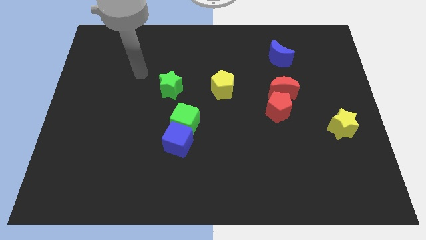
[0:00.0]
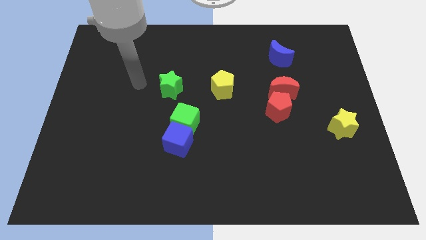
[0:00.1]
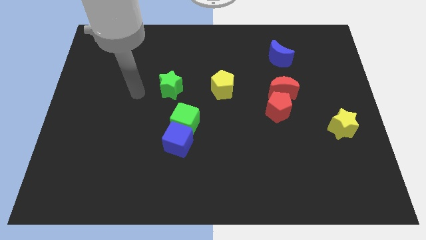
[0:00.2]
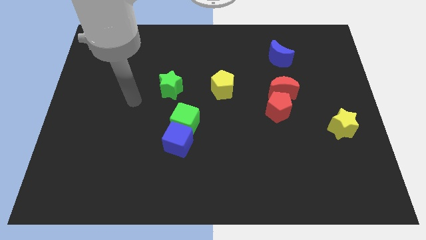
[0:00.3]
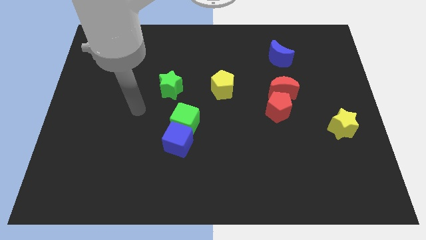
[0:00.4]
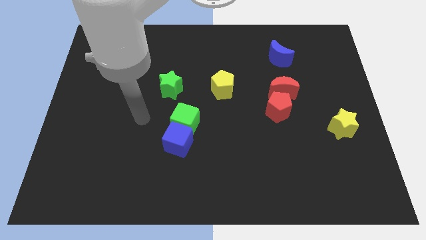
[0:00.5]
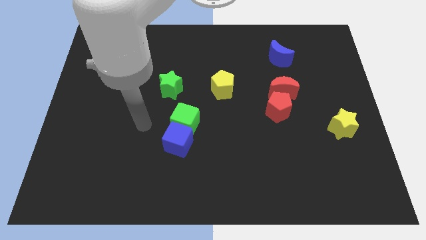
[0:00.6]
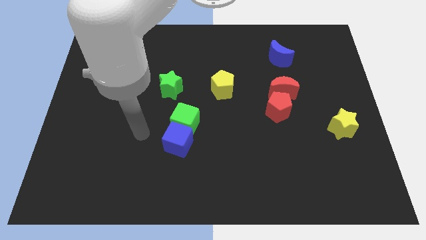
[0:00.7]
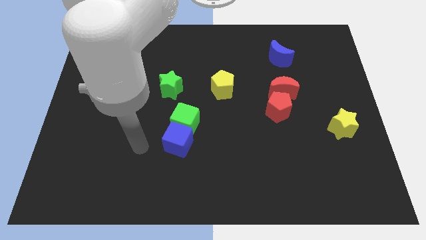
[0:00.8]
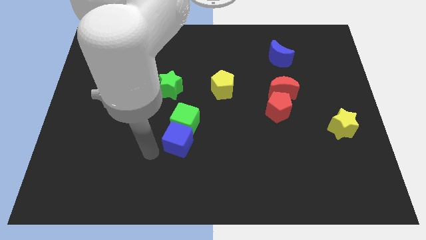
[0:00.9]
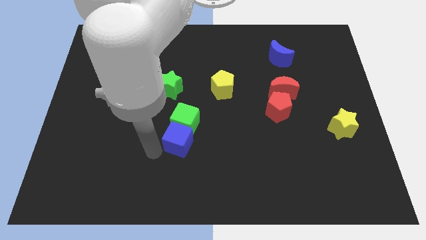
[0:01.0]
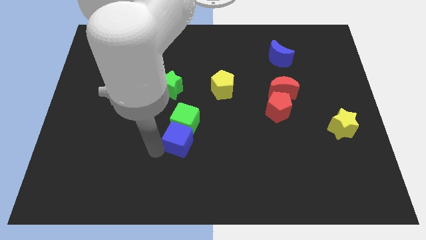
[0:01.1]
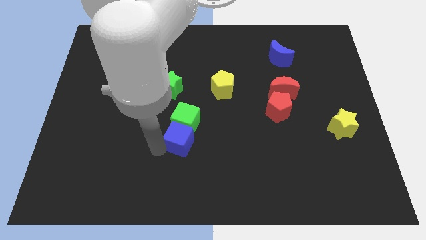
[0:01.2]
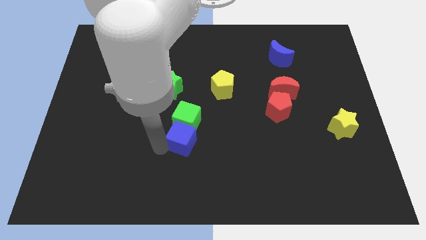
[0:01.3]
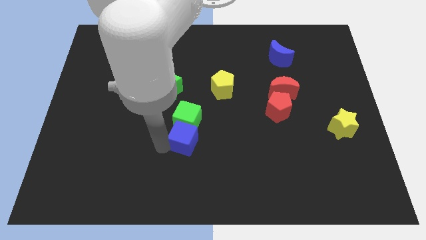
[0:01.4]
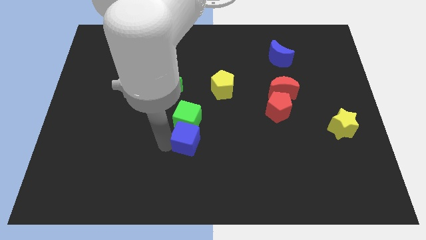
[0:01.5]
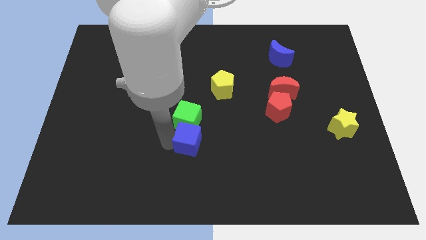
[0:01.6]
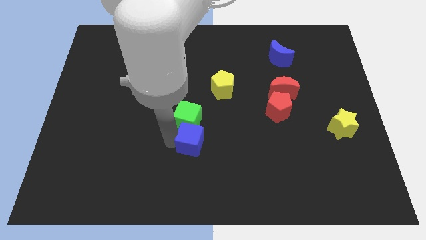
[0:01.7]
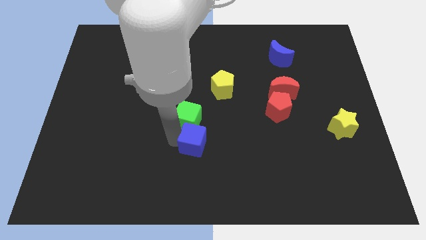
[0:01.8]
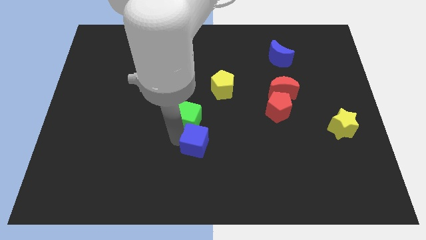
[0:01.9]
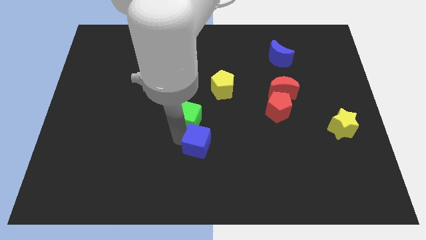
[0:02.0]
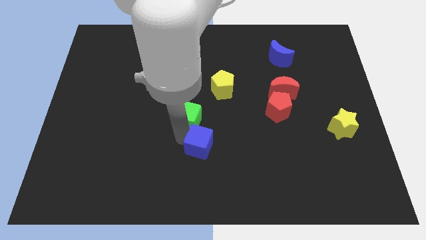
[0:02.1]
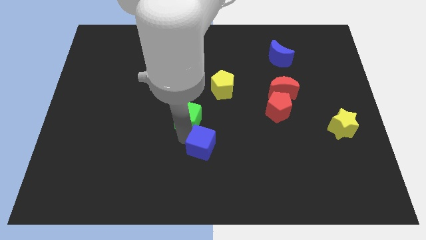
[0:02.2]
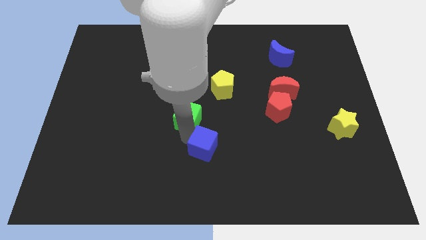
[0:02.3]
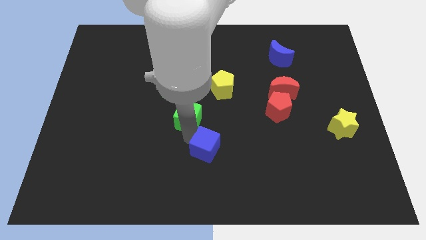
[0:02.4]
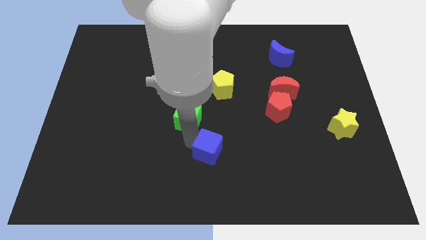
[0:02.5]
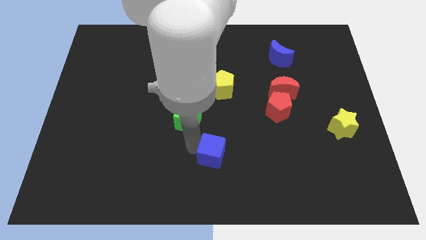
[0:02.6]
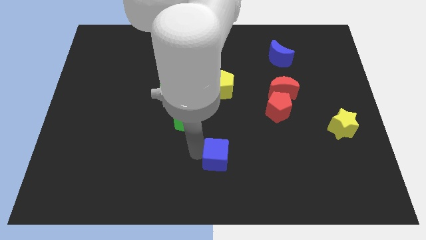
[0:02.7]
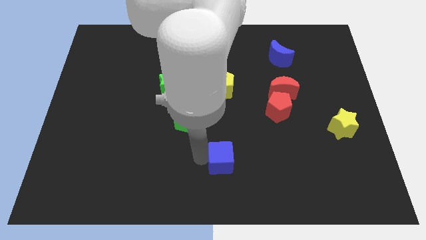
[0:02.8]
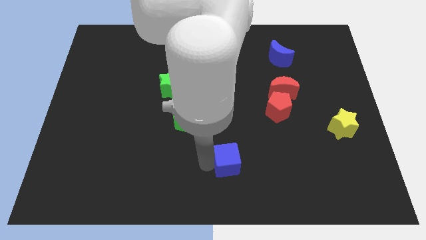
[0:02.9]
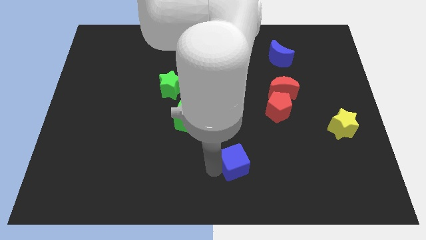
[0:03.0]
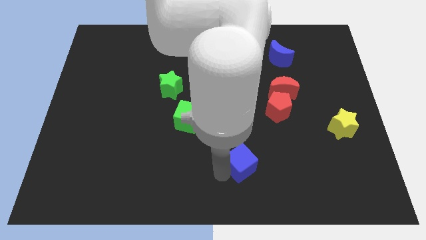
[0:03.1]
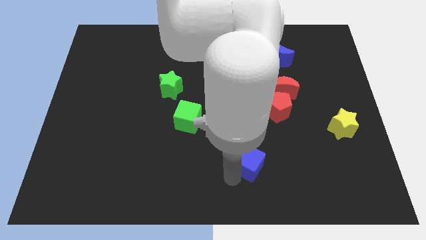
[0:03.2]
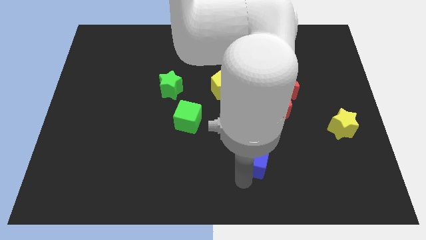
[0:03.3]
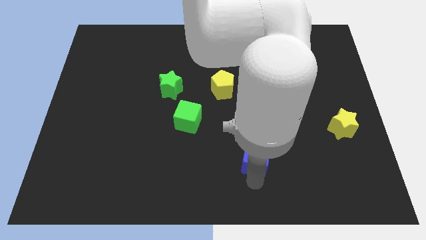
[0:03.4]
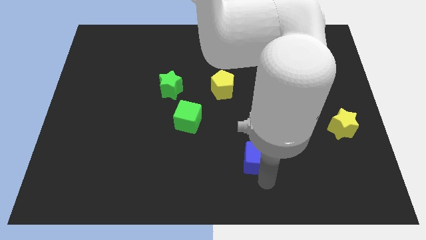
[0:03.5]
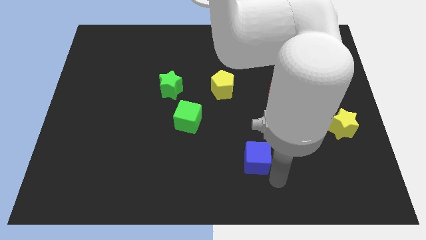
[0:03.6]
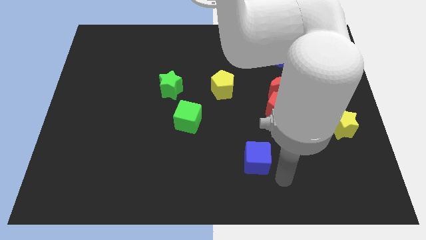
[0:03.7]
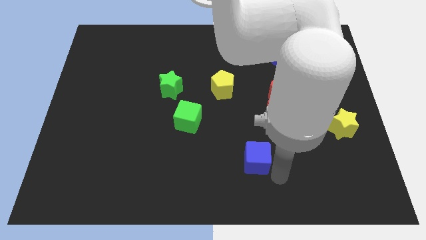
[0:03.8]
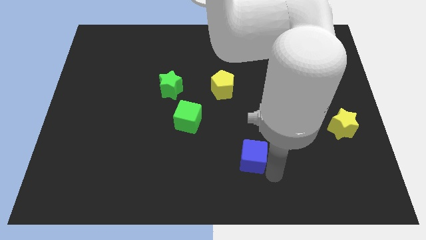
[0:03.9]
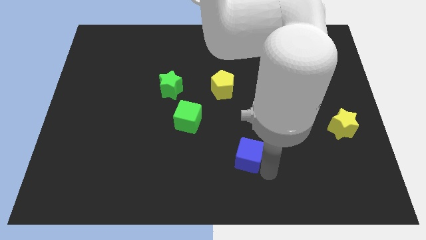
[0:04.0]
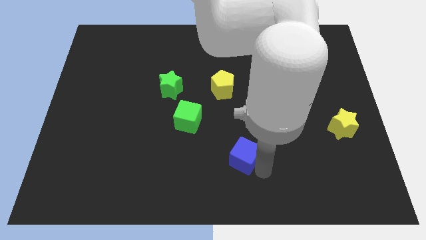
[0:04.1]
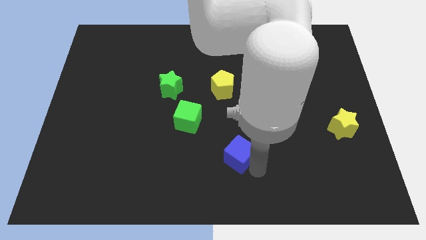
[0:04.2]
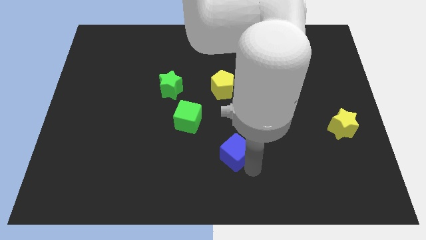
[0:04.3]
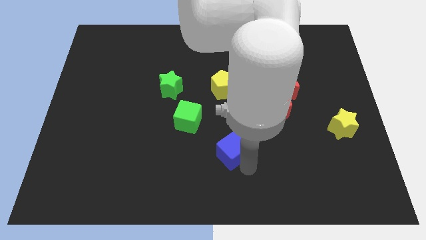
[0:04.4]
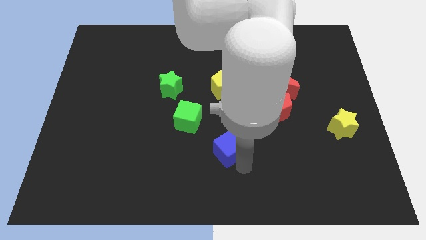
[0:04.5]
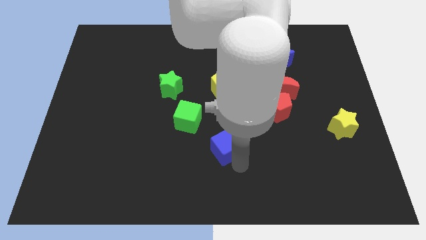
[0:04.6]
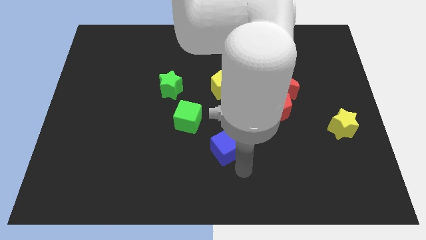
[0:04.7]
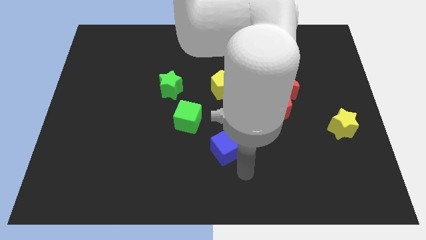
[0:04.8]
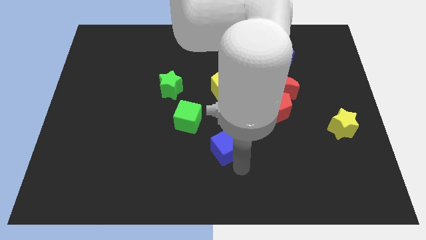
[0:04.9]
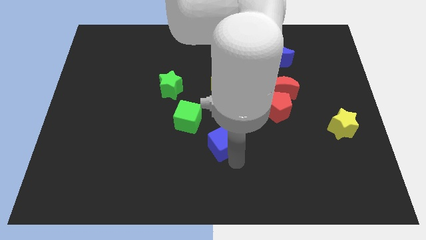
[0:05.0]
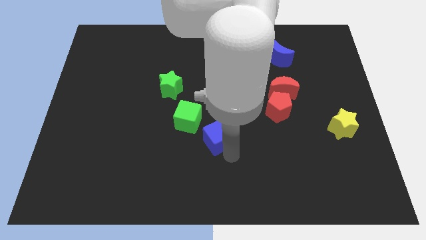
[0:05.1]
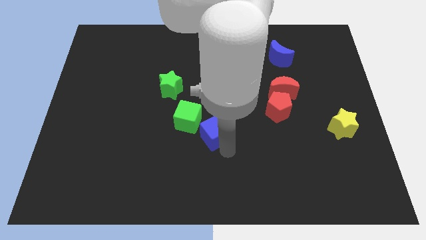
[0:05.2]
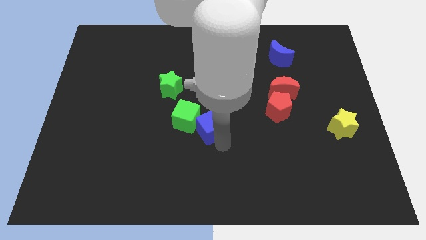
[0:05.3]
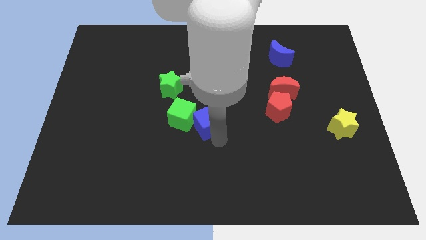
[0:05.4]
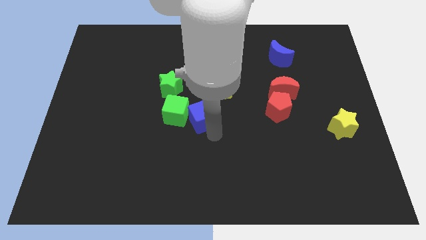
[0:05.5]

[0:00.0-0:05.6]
move the blue cube to the bottom left side of the yellow pentagon

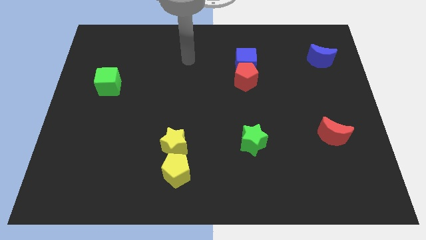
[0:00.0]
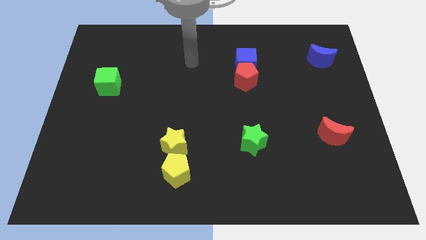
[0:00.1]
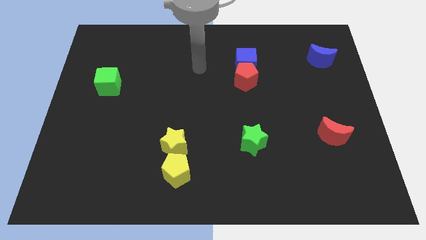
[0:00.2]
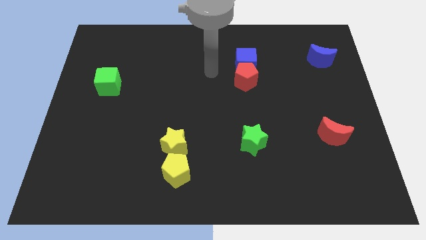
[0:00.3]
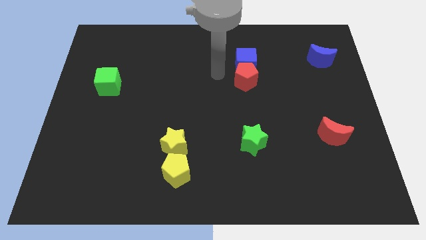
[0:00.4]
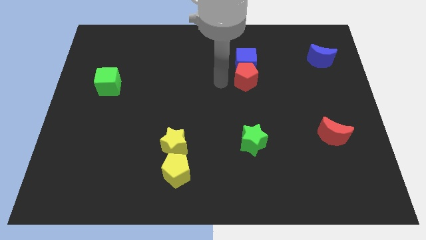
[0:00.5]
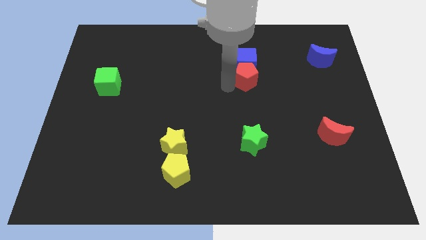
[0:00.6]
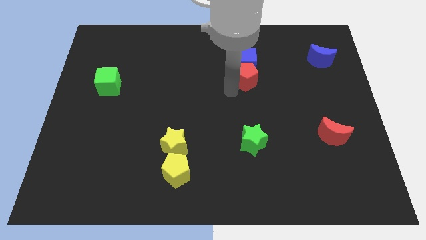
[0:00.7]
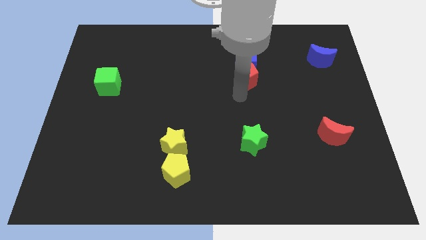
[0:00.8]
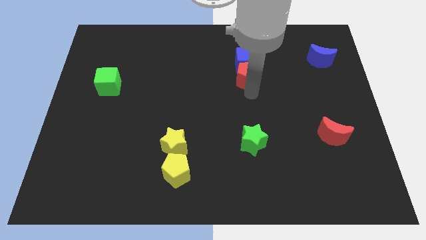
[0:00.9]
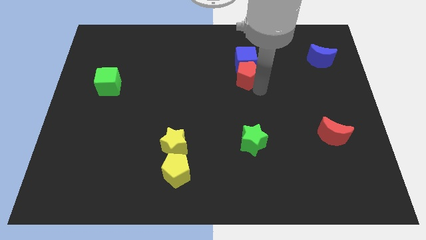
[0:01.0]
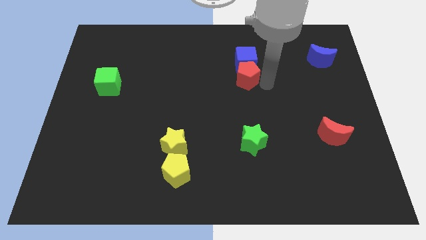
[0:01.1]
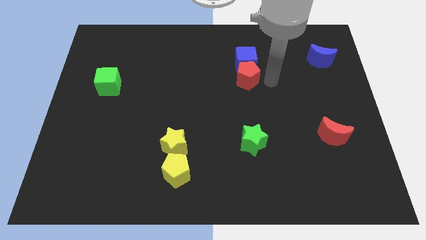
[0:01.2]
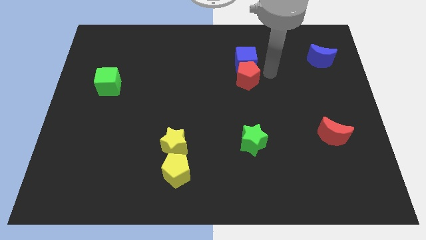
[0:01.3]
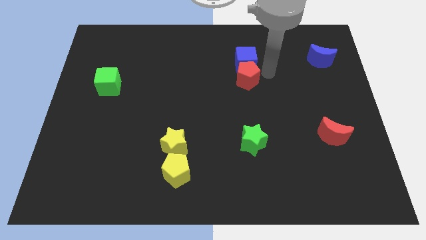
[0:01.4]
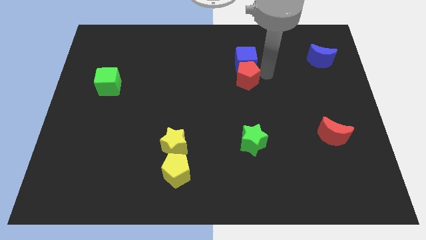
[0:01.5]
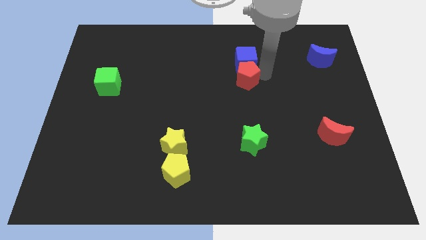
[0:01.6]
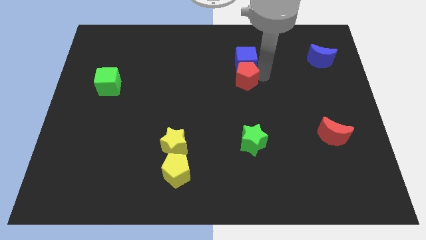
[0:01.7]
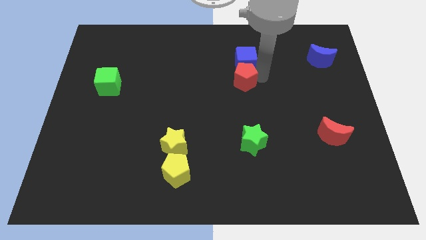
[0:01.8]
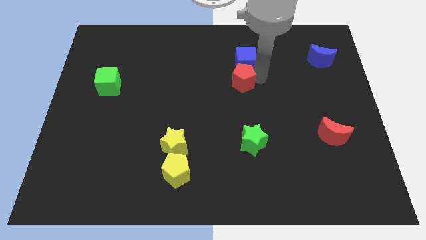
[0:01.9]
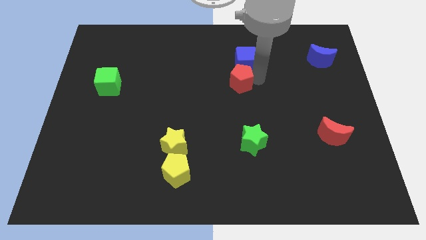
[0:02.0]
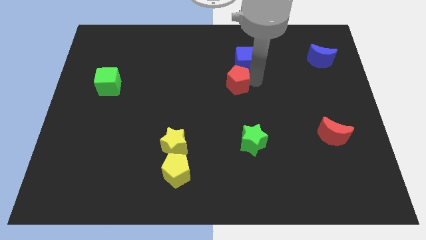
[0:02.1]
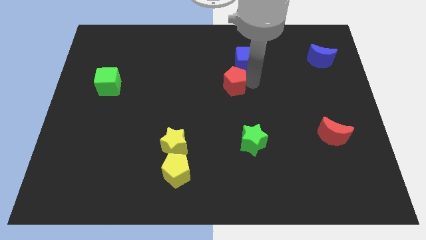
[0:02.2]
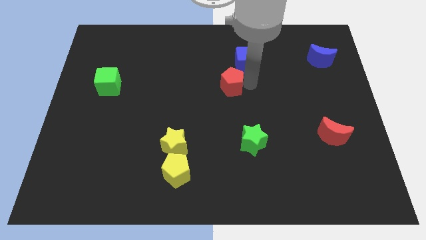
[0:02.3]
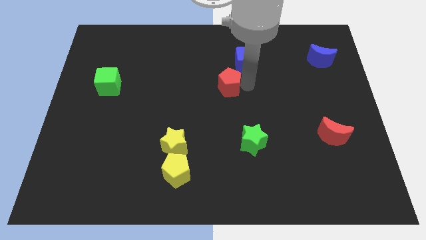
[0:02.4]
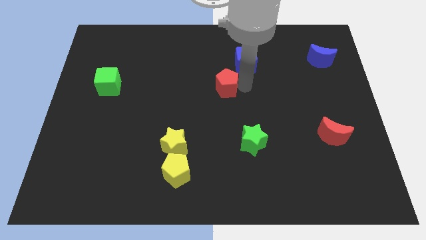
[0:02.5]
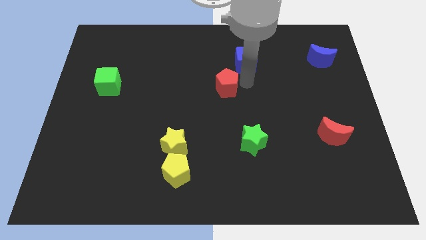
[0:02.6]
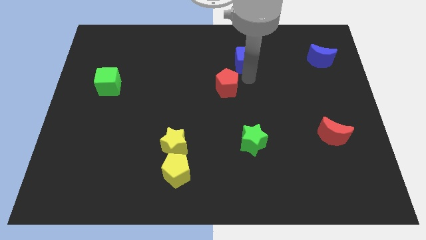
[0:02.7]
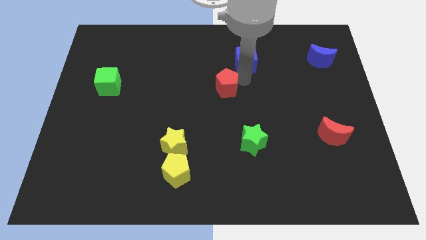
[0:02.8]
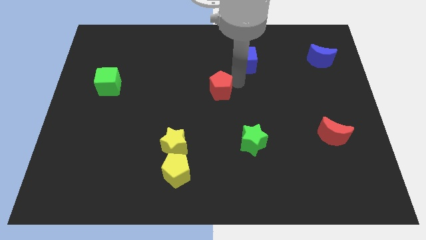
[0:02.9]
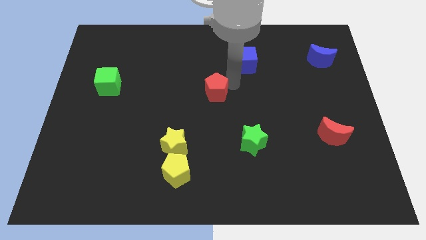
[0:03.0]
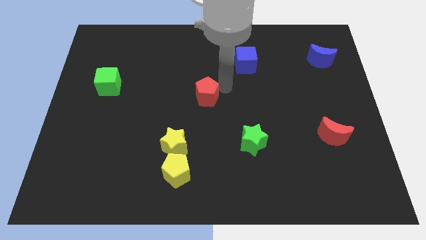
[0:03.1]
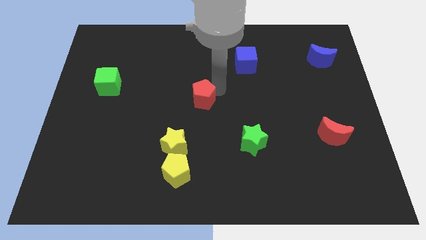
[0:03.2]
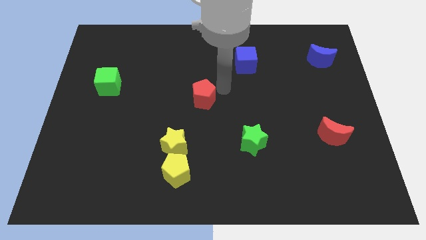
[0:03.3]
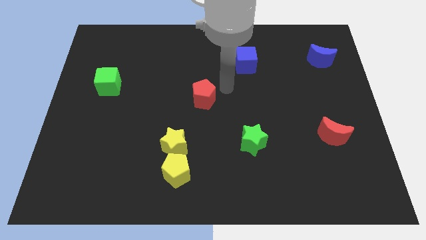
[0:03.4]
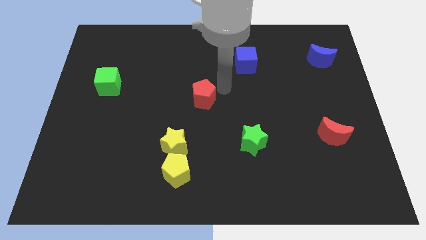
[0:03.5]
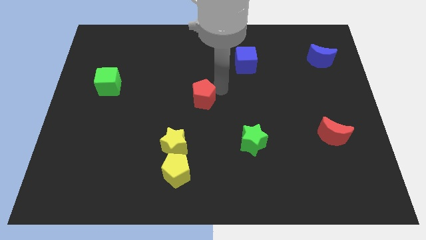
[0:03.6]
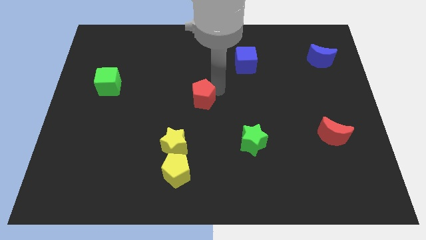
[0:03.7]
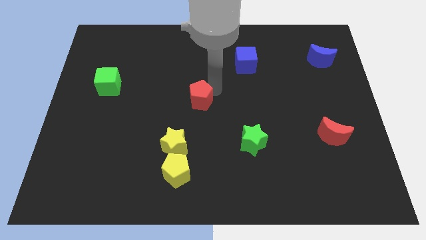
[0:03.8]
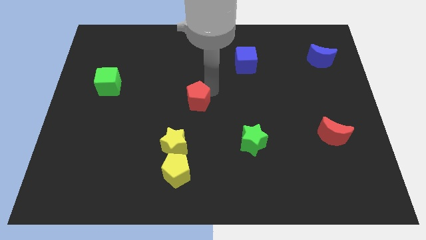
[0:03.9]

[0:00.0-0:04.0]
push the red pentagon to the top side of the yellow star
